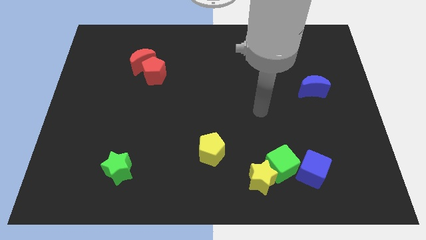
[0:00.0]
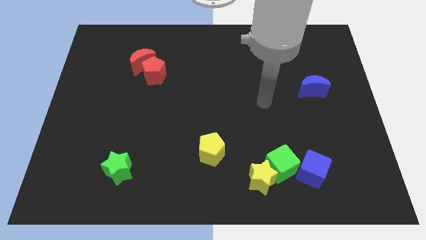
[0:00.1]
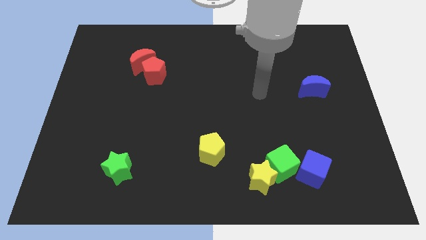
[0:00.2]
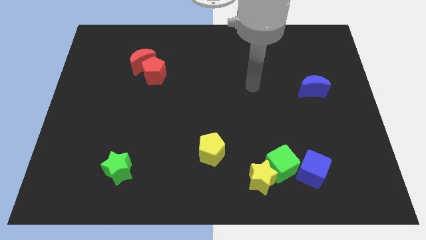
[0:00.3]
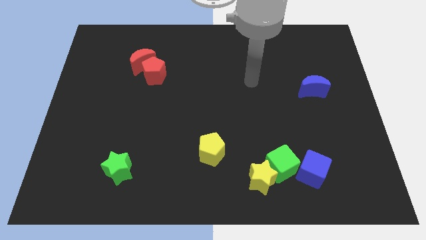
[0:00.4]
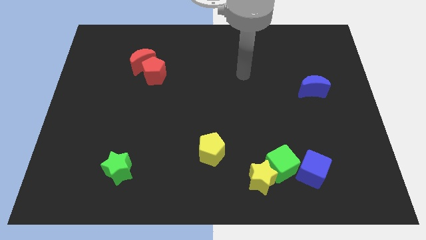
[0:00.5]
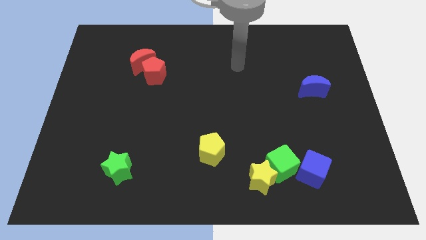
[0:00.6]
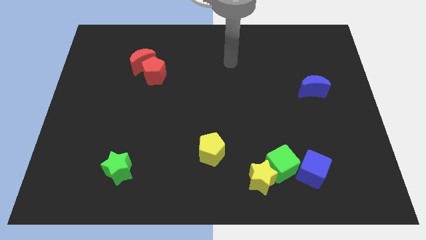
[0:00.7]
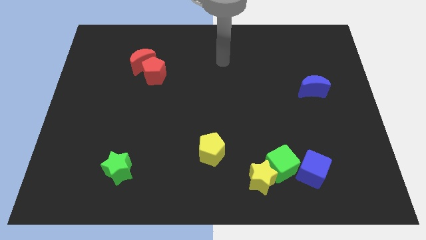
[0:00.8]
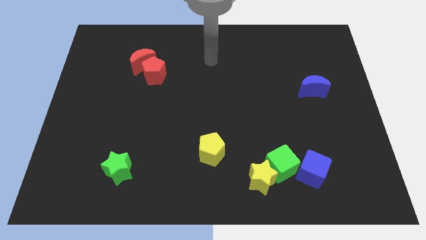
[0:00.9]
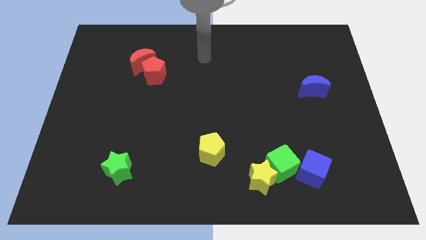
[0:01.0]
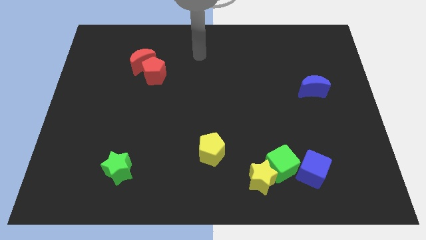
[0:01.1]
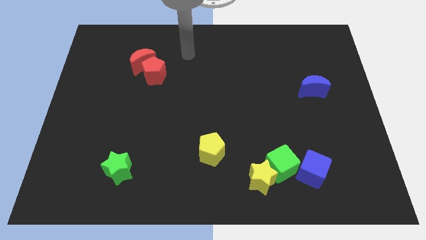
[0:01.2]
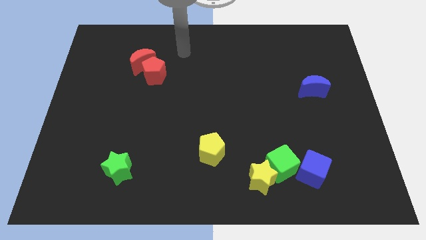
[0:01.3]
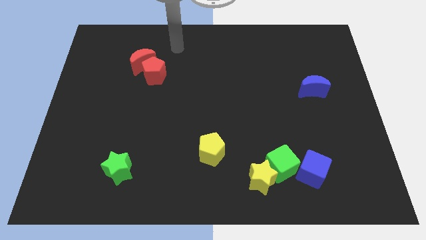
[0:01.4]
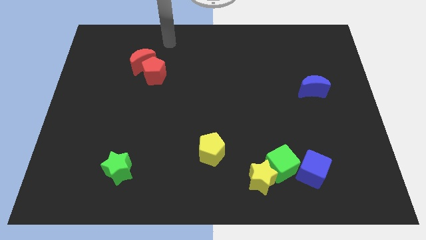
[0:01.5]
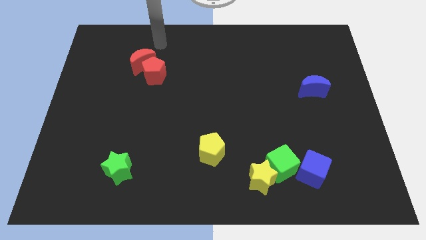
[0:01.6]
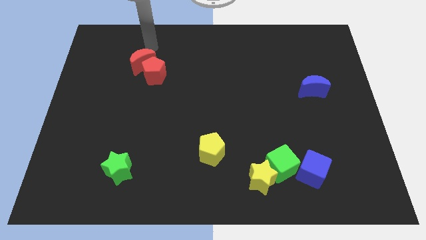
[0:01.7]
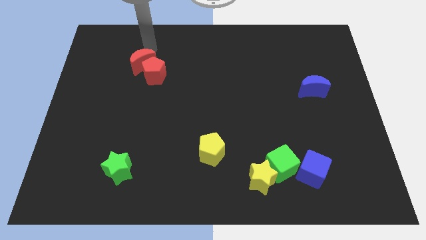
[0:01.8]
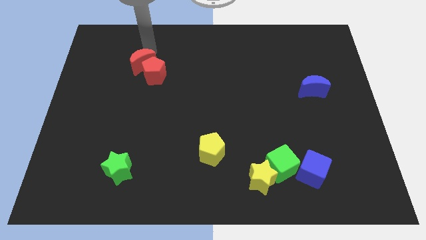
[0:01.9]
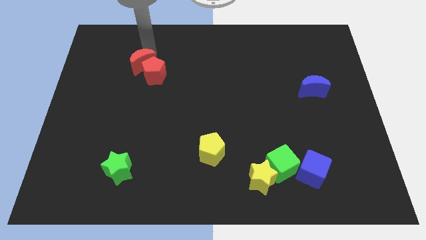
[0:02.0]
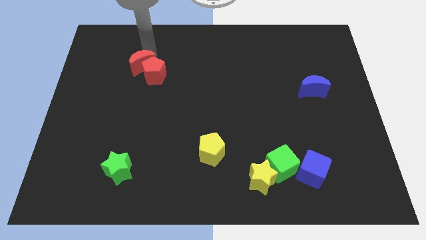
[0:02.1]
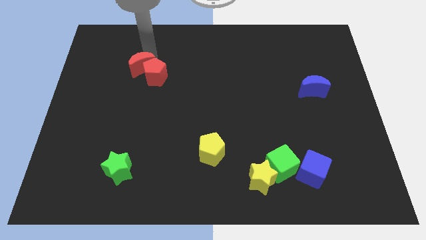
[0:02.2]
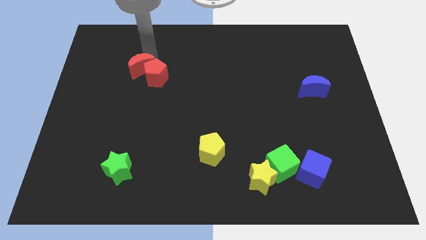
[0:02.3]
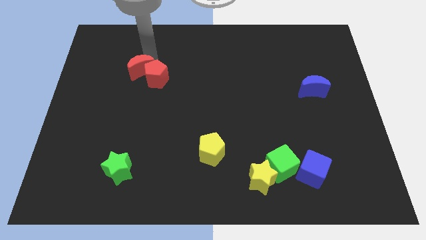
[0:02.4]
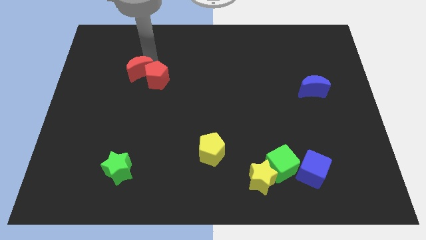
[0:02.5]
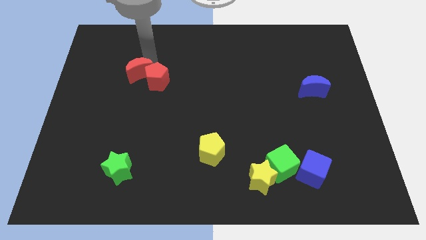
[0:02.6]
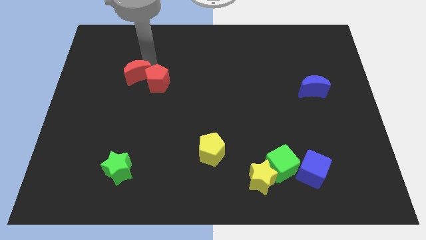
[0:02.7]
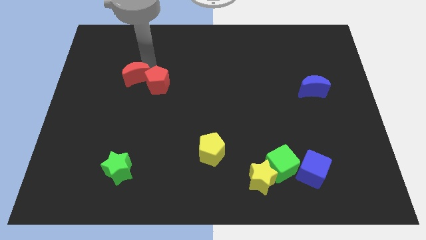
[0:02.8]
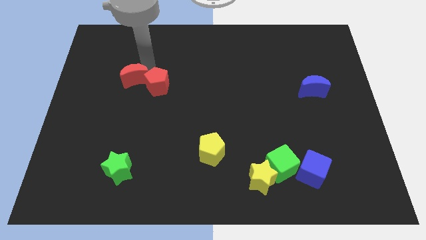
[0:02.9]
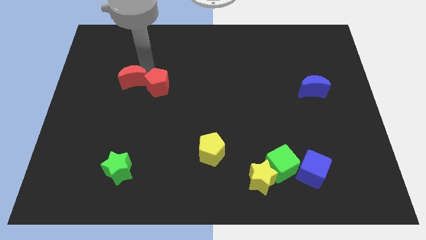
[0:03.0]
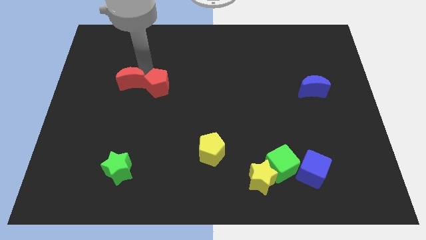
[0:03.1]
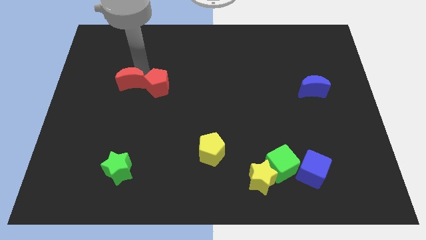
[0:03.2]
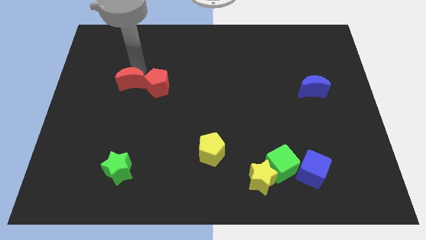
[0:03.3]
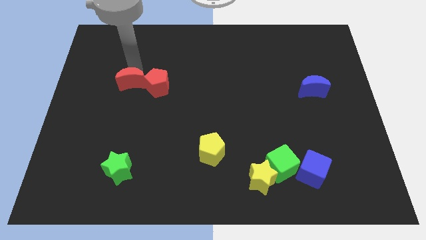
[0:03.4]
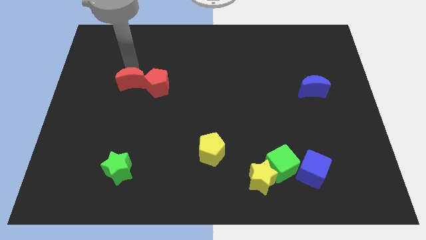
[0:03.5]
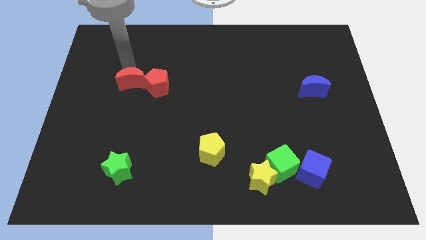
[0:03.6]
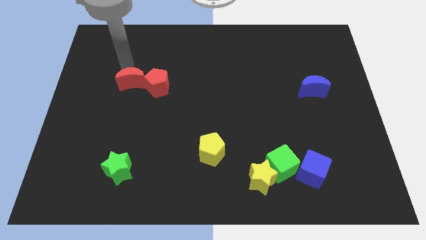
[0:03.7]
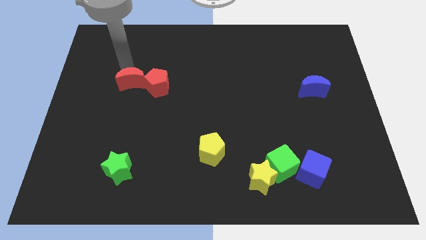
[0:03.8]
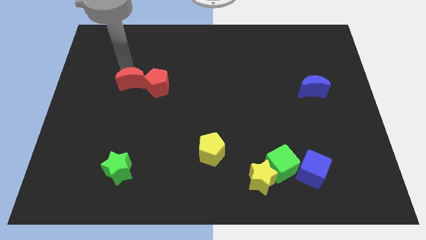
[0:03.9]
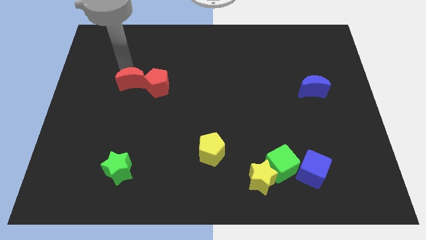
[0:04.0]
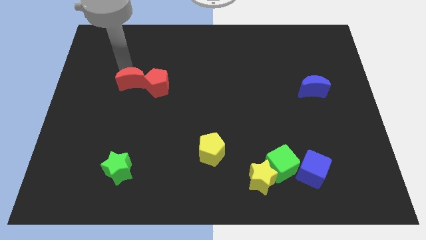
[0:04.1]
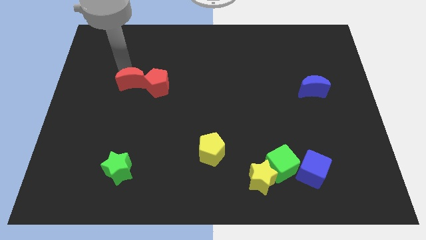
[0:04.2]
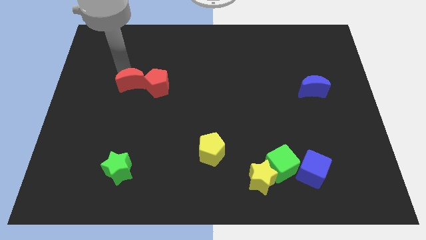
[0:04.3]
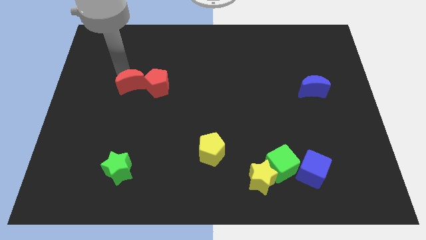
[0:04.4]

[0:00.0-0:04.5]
slide the red moon downwards slightly

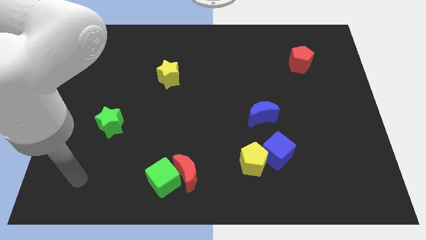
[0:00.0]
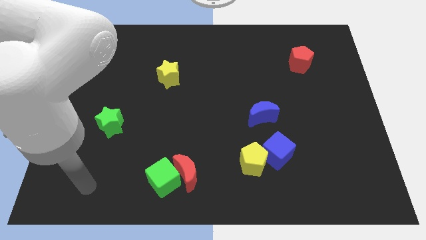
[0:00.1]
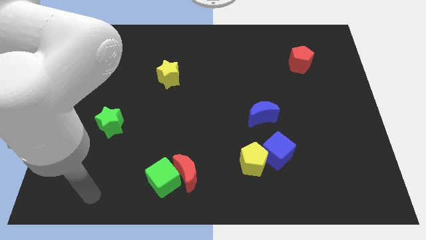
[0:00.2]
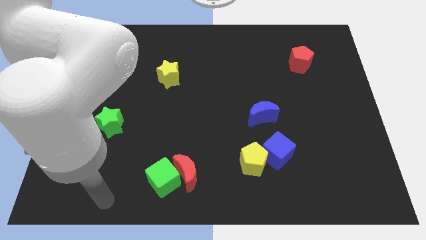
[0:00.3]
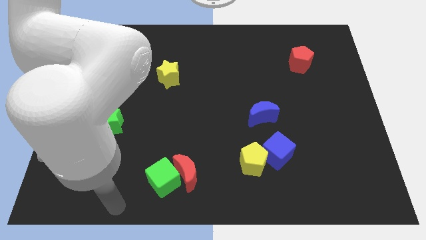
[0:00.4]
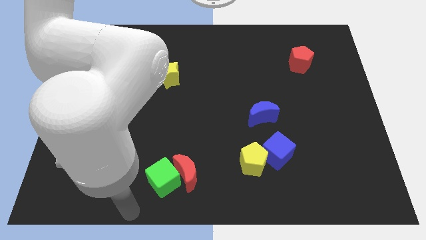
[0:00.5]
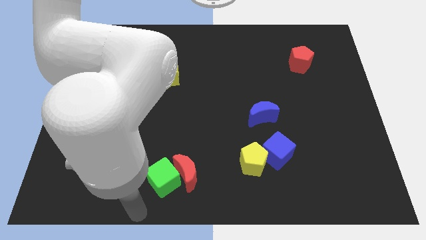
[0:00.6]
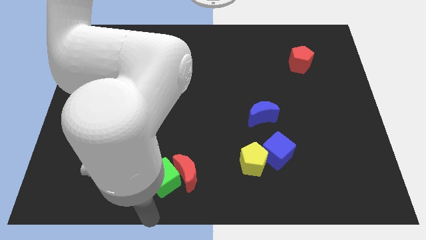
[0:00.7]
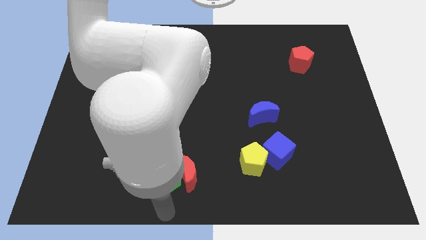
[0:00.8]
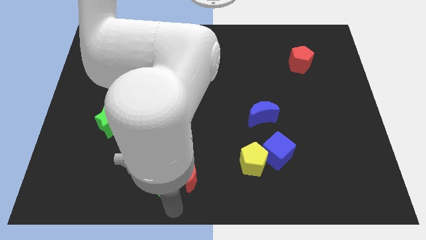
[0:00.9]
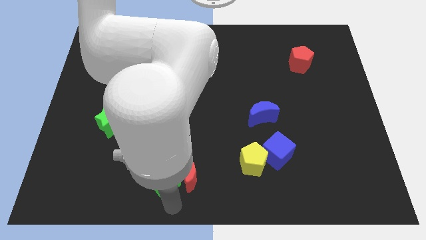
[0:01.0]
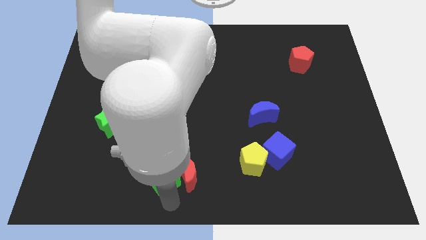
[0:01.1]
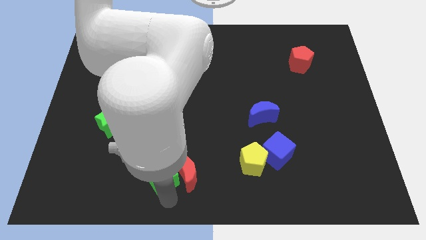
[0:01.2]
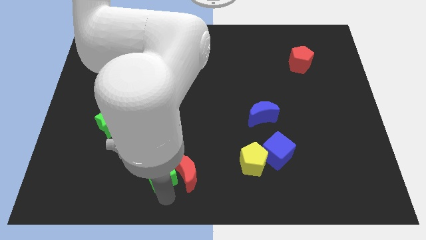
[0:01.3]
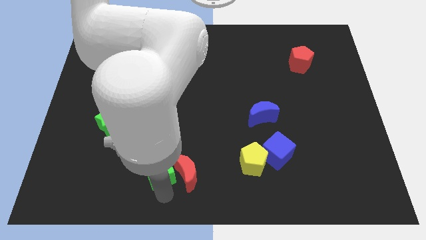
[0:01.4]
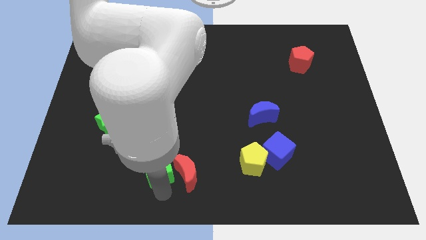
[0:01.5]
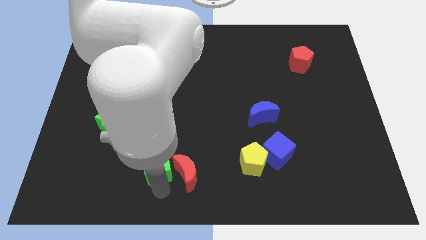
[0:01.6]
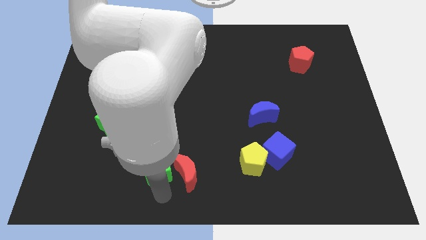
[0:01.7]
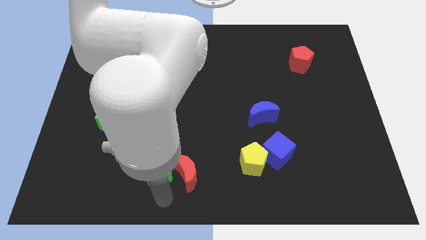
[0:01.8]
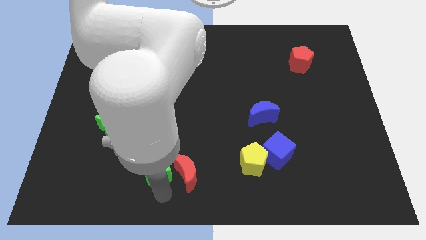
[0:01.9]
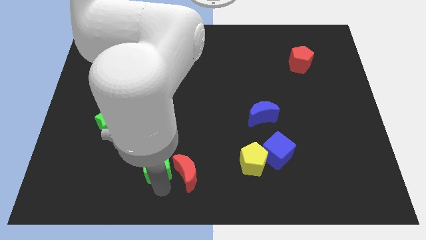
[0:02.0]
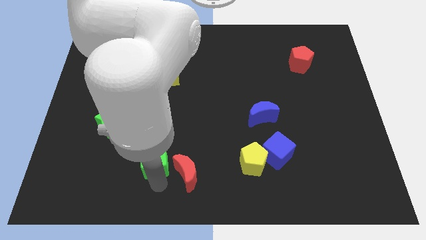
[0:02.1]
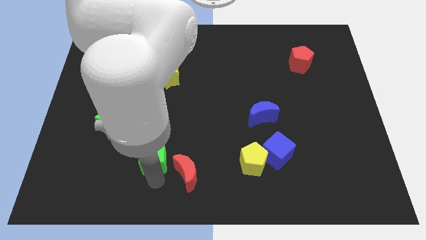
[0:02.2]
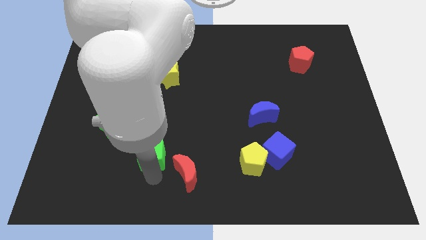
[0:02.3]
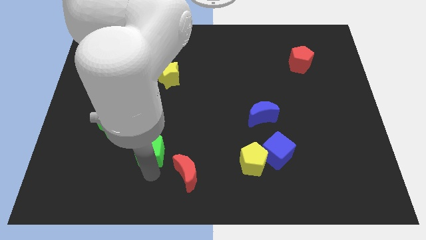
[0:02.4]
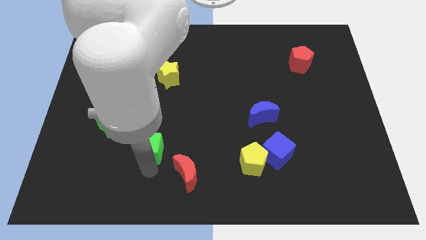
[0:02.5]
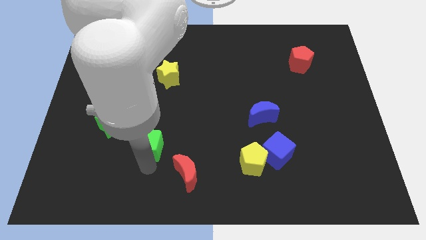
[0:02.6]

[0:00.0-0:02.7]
move the green cube a little bit up

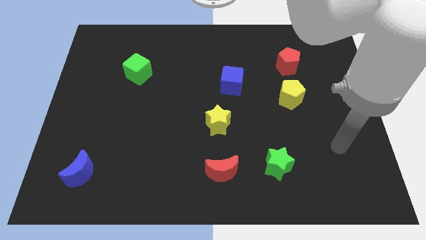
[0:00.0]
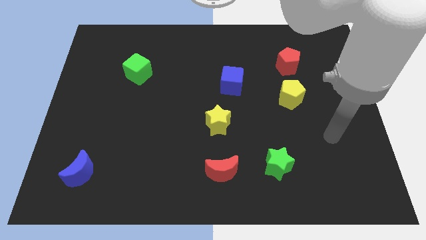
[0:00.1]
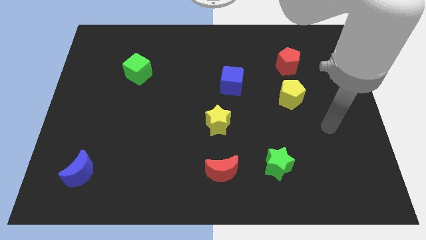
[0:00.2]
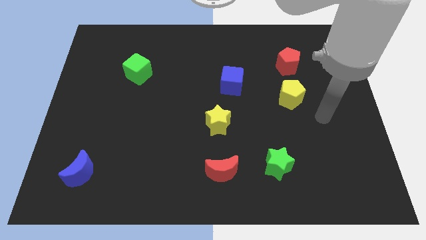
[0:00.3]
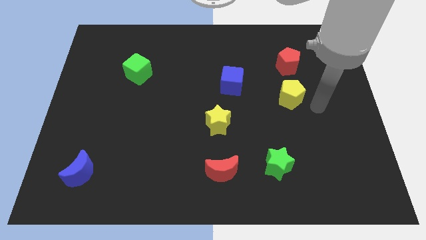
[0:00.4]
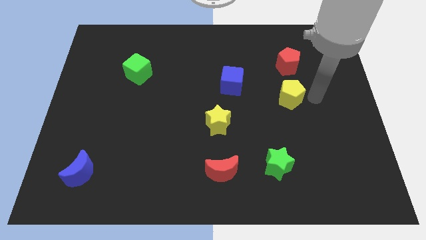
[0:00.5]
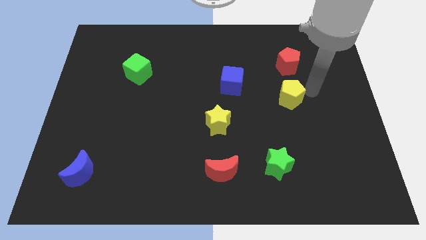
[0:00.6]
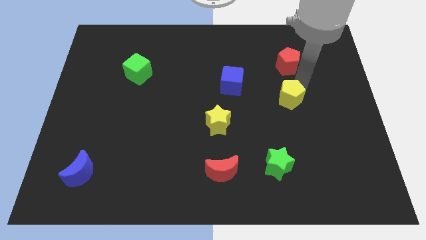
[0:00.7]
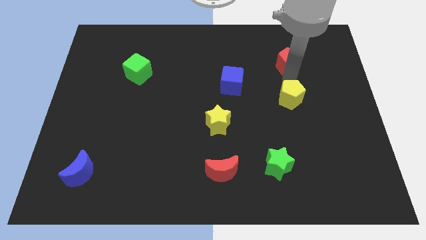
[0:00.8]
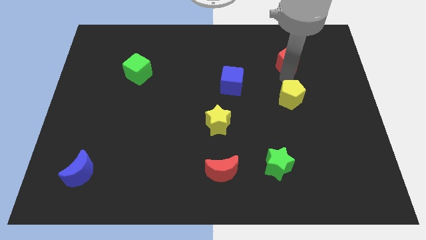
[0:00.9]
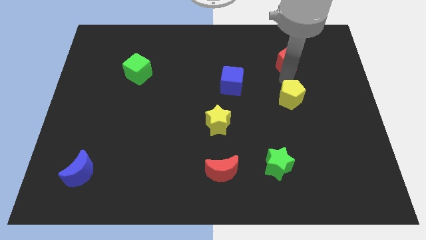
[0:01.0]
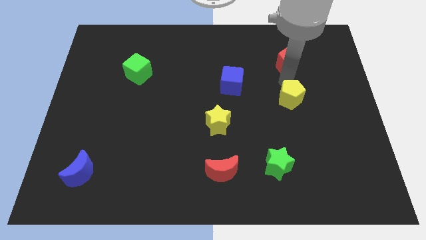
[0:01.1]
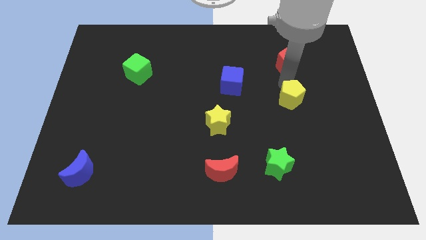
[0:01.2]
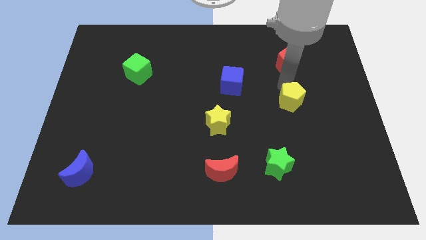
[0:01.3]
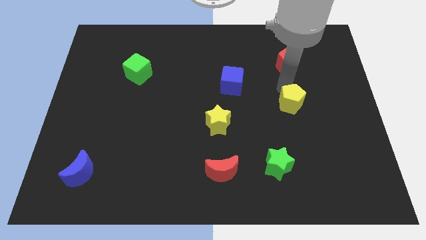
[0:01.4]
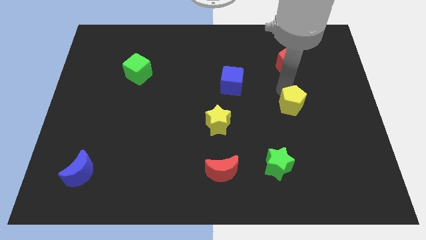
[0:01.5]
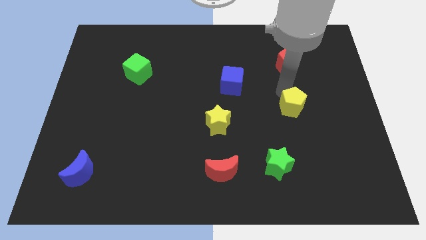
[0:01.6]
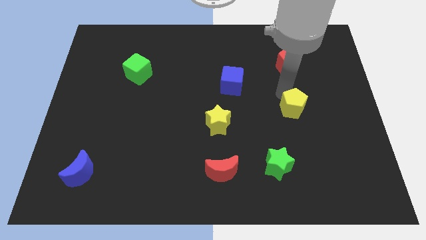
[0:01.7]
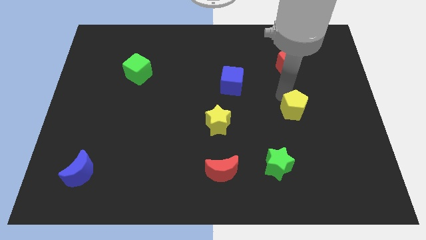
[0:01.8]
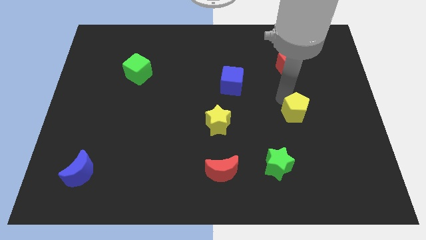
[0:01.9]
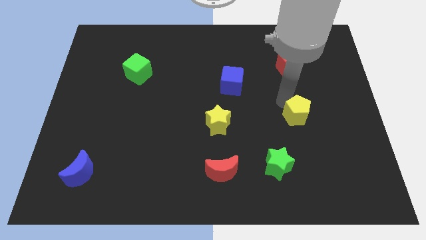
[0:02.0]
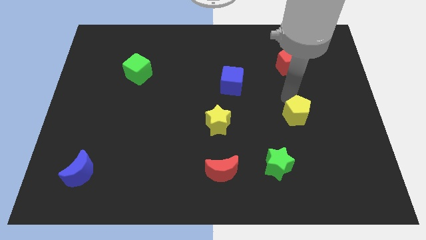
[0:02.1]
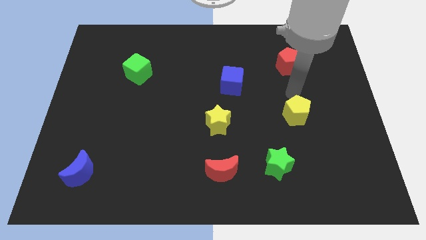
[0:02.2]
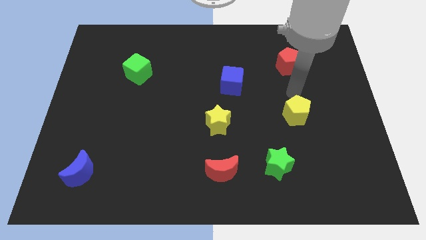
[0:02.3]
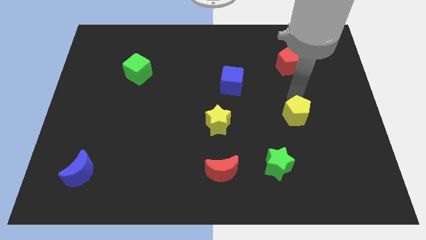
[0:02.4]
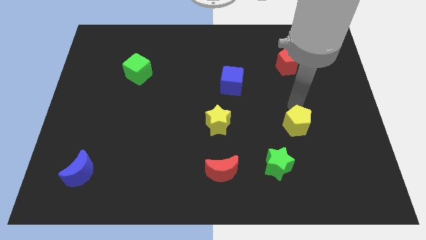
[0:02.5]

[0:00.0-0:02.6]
move the yellow pentagon downwards a bit
